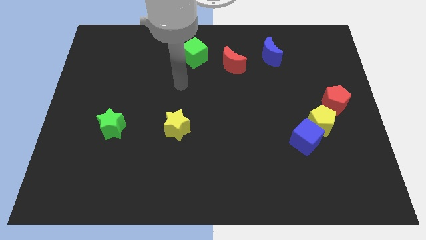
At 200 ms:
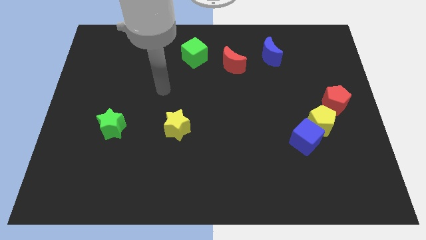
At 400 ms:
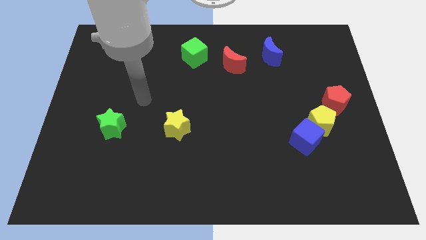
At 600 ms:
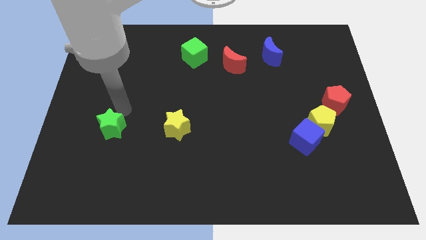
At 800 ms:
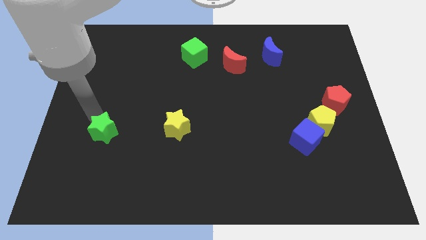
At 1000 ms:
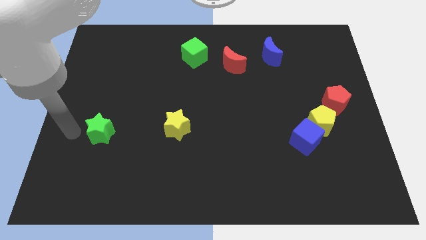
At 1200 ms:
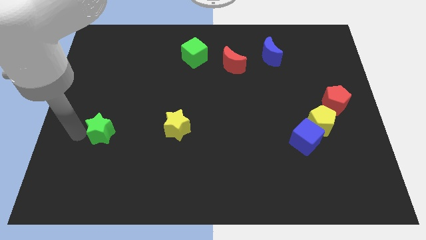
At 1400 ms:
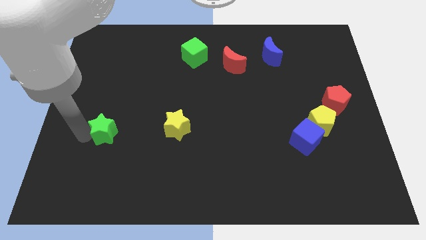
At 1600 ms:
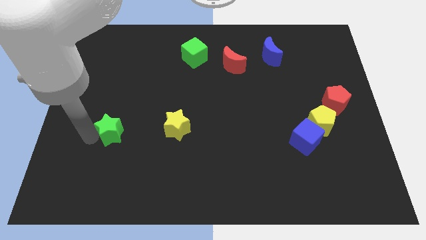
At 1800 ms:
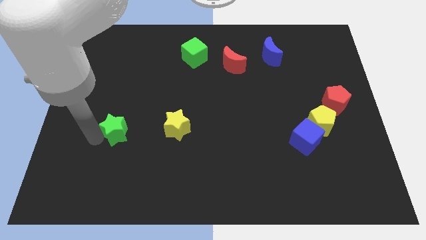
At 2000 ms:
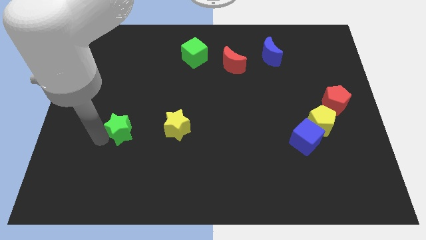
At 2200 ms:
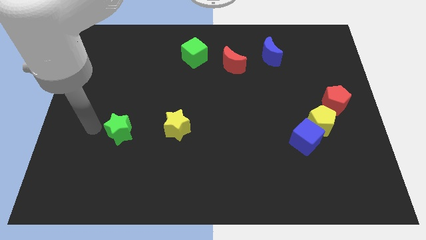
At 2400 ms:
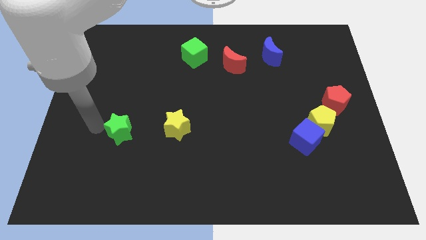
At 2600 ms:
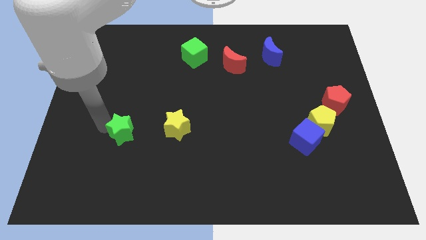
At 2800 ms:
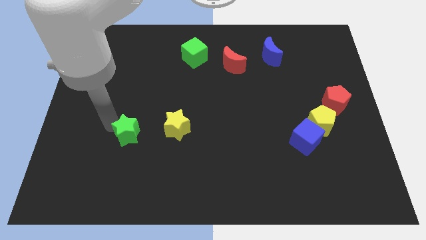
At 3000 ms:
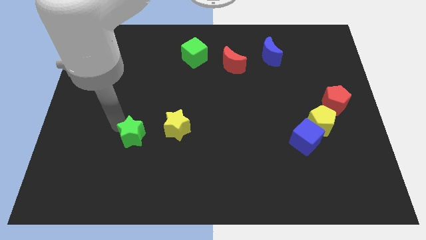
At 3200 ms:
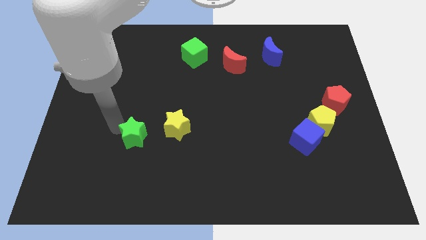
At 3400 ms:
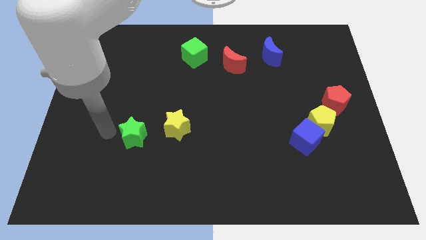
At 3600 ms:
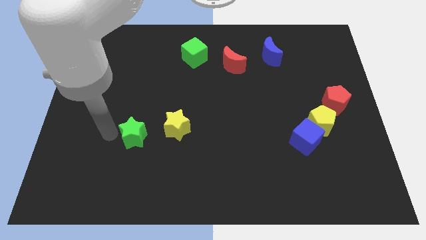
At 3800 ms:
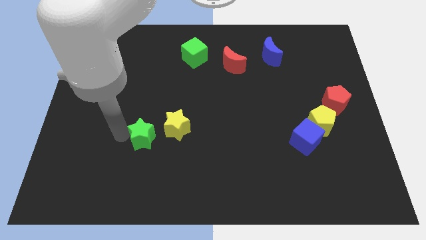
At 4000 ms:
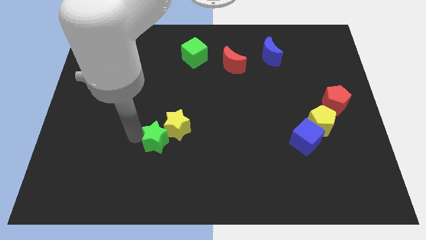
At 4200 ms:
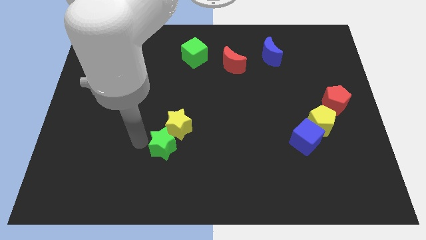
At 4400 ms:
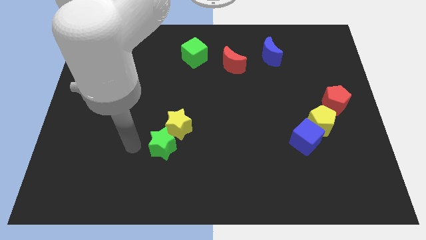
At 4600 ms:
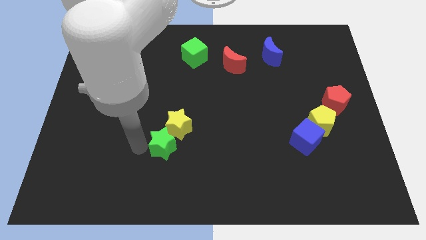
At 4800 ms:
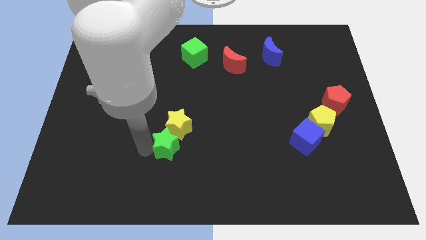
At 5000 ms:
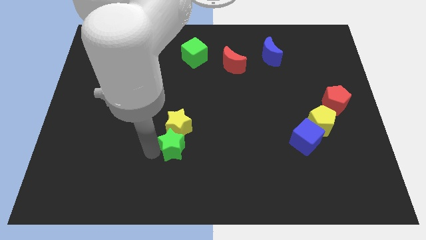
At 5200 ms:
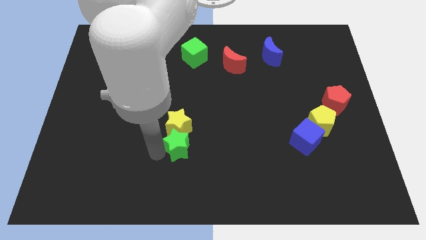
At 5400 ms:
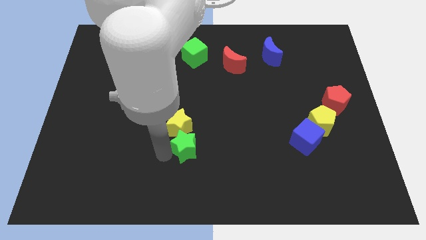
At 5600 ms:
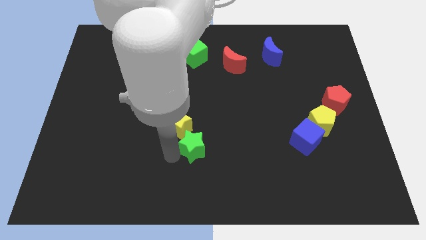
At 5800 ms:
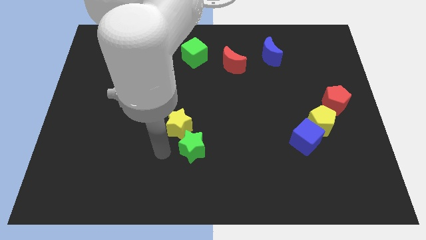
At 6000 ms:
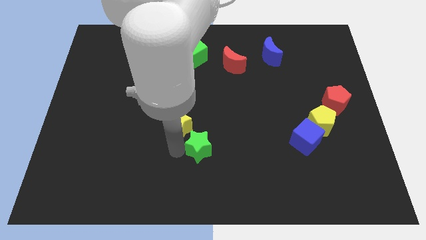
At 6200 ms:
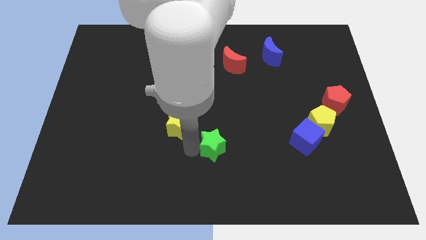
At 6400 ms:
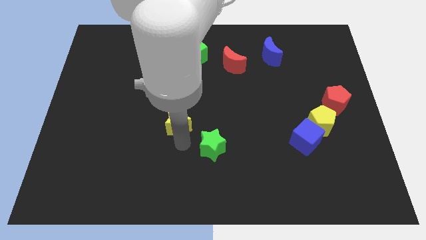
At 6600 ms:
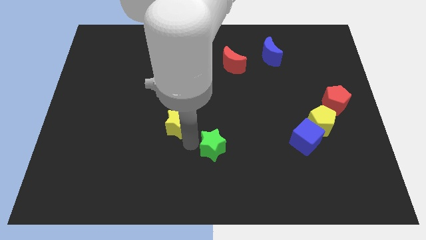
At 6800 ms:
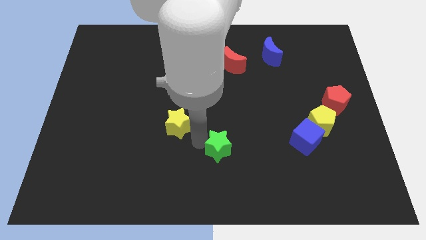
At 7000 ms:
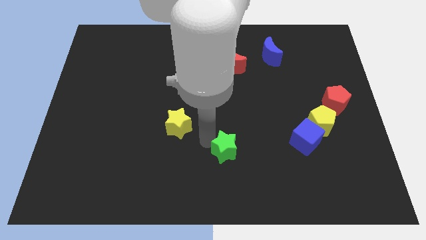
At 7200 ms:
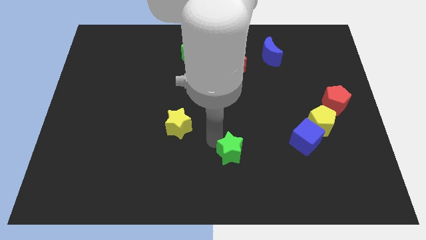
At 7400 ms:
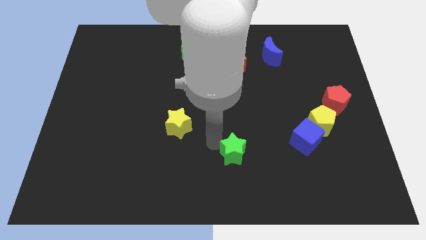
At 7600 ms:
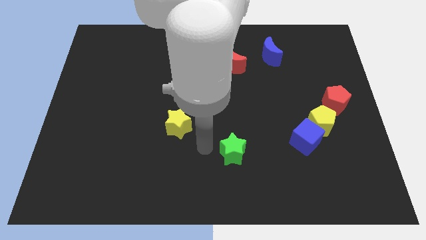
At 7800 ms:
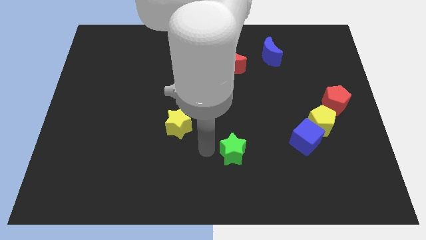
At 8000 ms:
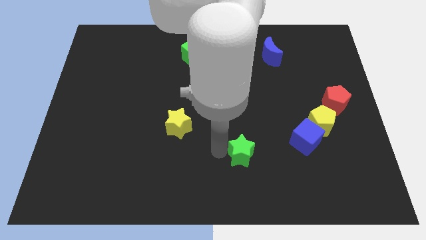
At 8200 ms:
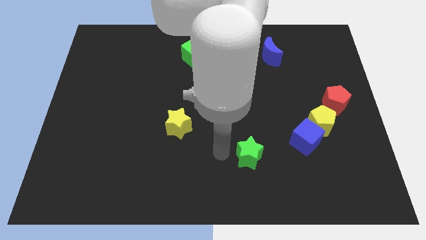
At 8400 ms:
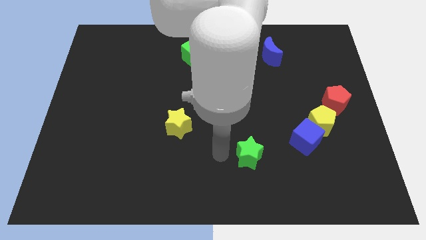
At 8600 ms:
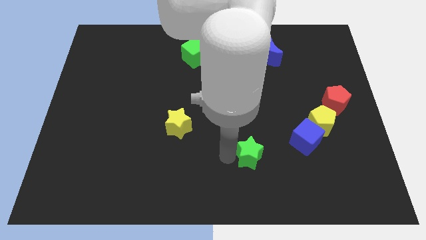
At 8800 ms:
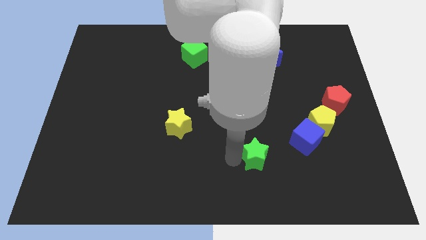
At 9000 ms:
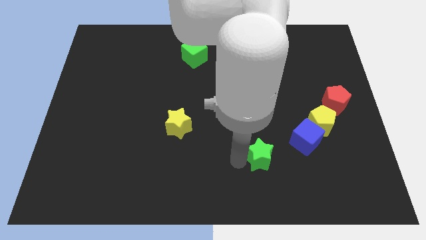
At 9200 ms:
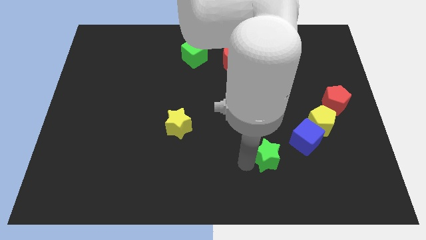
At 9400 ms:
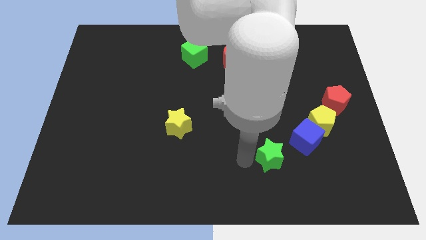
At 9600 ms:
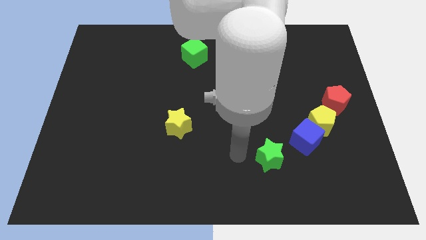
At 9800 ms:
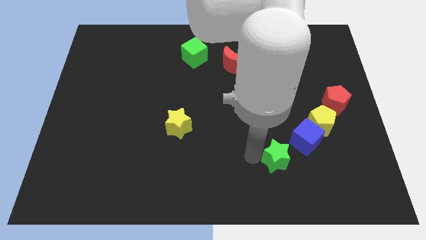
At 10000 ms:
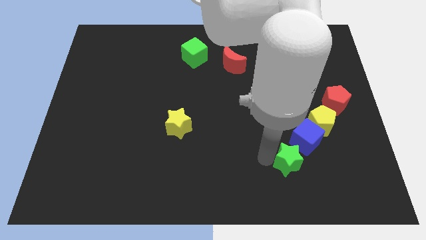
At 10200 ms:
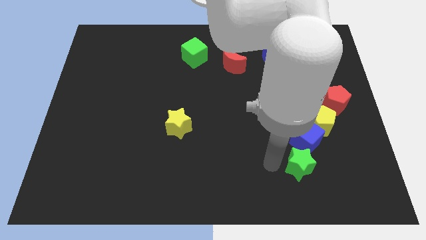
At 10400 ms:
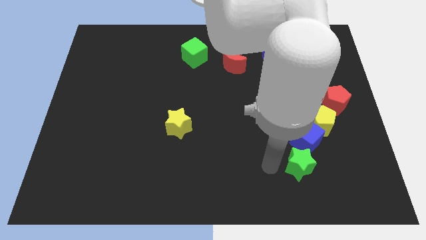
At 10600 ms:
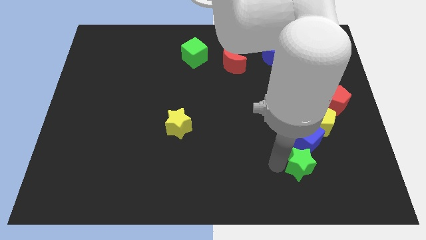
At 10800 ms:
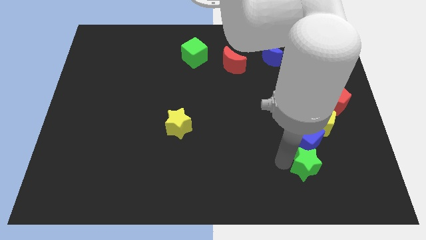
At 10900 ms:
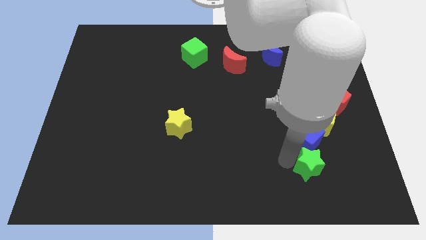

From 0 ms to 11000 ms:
put the green star to the bottom of the yellow pentagon

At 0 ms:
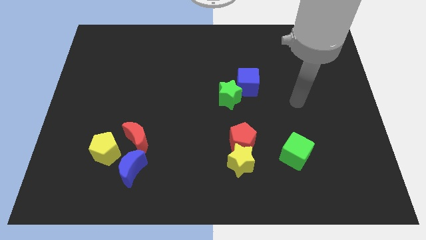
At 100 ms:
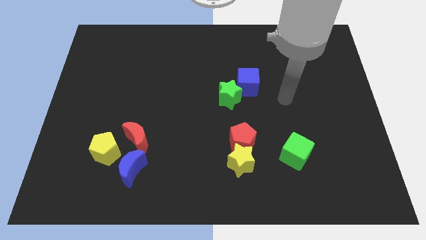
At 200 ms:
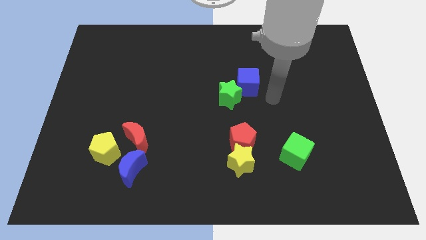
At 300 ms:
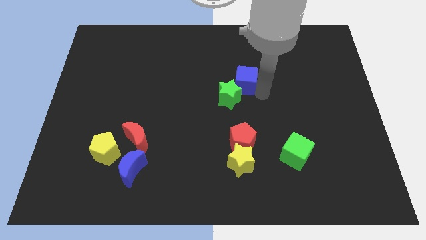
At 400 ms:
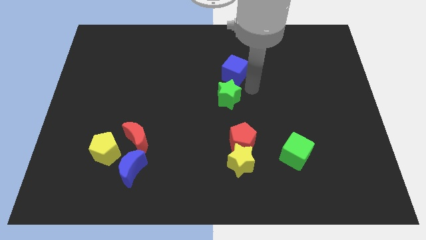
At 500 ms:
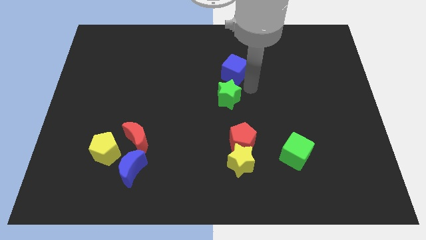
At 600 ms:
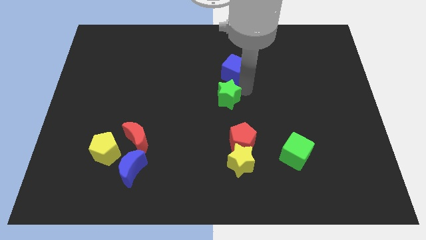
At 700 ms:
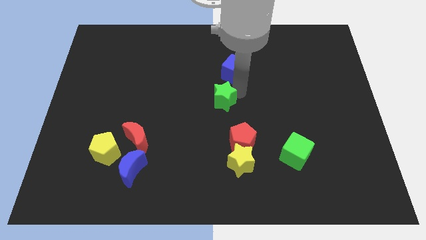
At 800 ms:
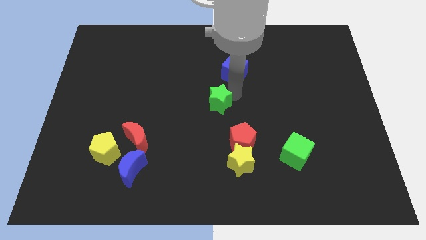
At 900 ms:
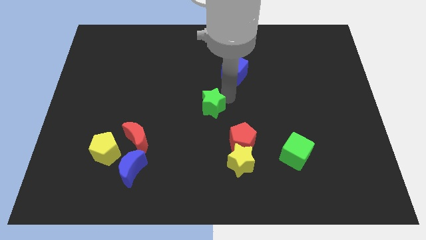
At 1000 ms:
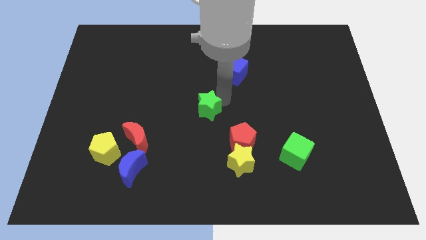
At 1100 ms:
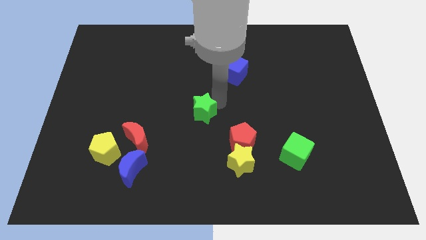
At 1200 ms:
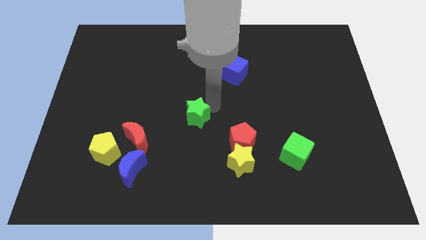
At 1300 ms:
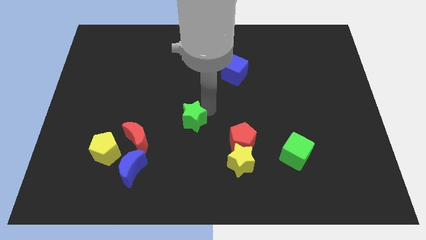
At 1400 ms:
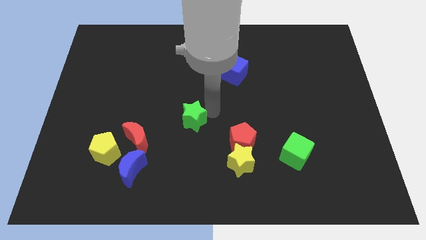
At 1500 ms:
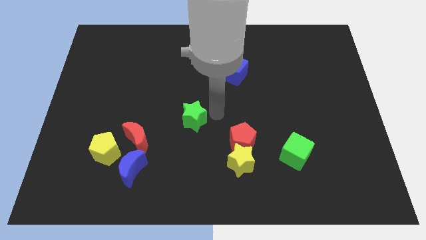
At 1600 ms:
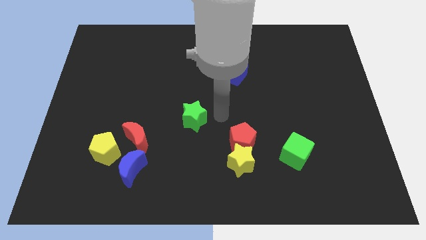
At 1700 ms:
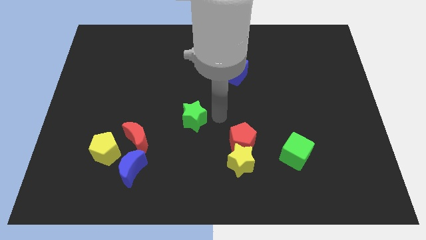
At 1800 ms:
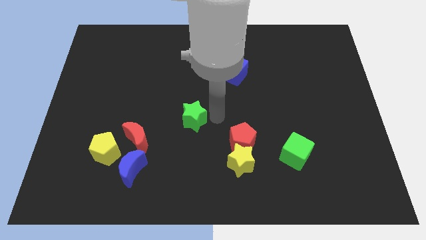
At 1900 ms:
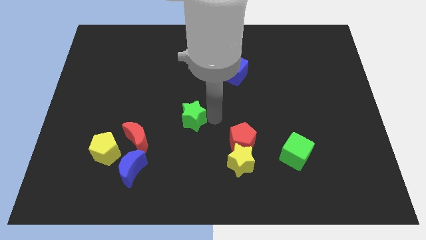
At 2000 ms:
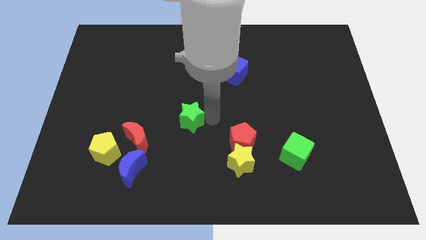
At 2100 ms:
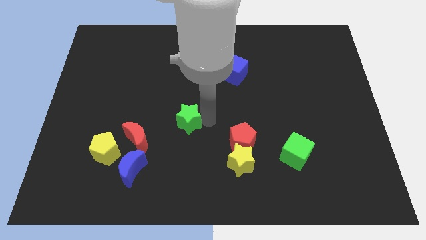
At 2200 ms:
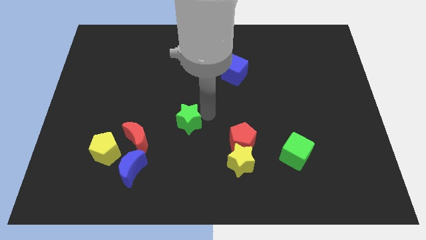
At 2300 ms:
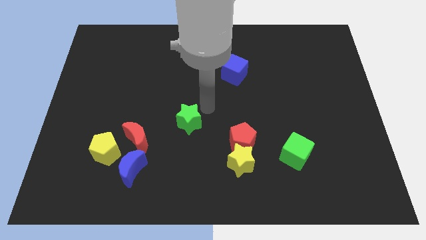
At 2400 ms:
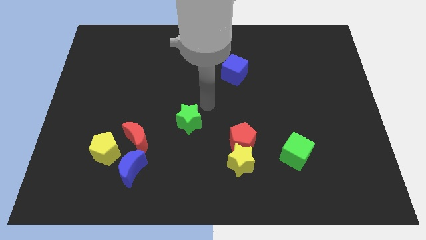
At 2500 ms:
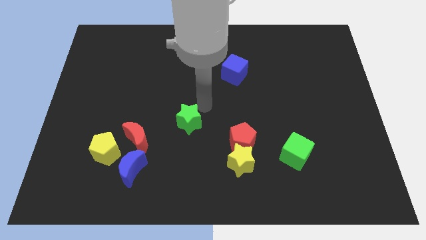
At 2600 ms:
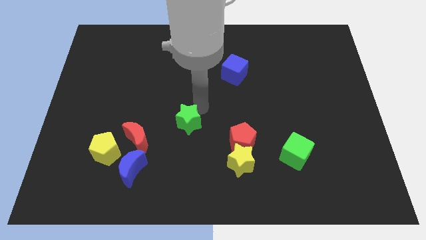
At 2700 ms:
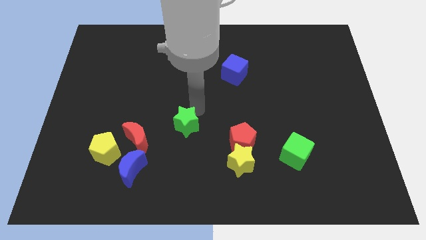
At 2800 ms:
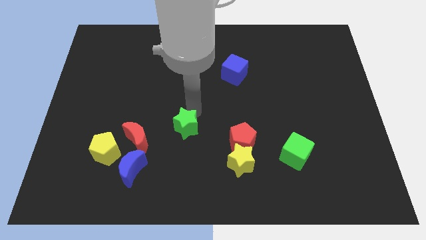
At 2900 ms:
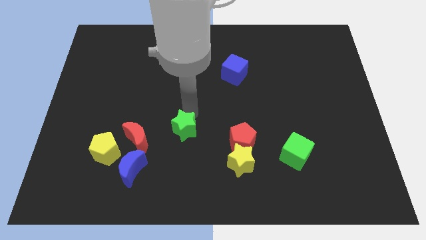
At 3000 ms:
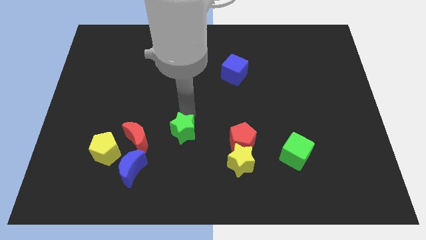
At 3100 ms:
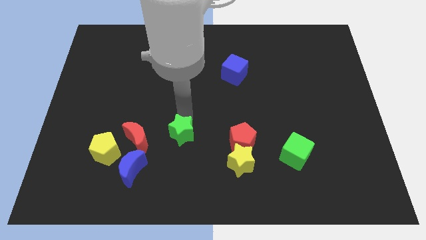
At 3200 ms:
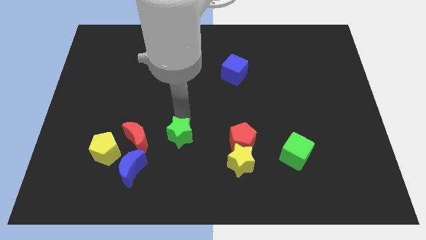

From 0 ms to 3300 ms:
put the green star to the top right of the blue moon
